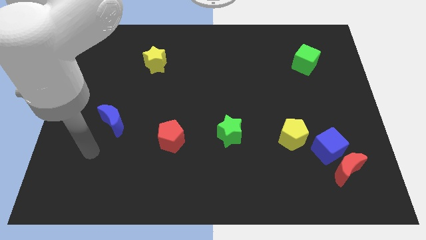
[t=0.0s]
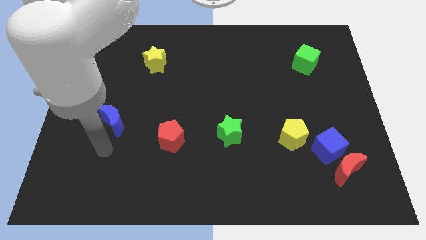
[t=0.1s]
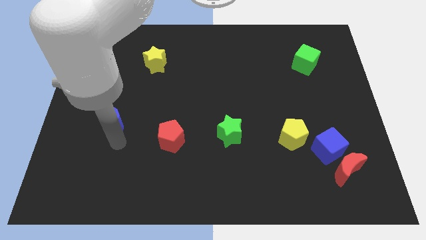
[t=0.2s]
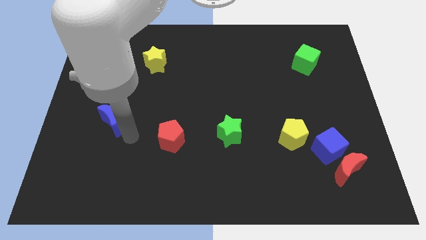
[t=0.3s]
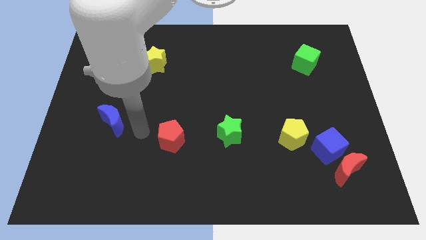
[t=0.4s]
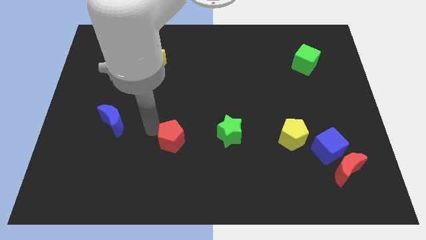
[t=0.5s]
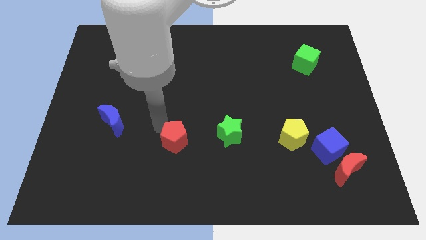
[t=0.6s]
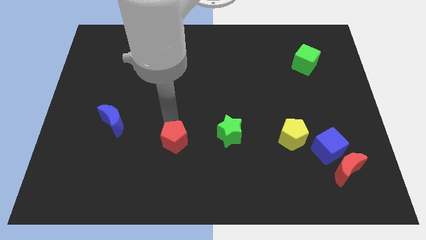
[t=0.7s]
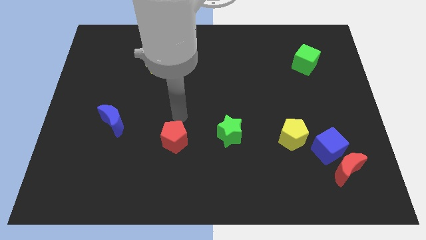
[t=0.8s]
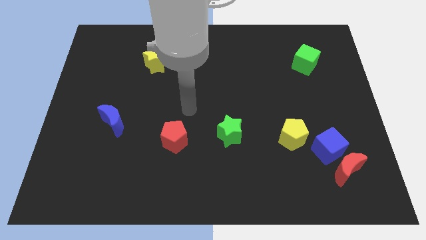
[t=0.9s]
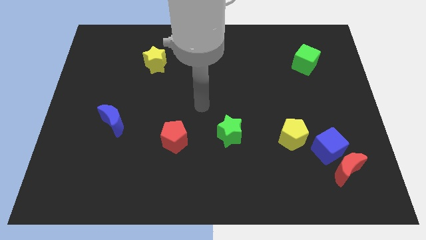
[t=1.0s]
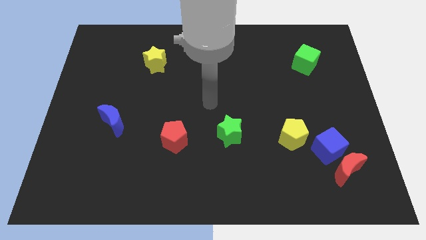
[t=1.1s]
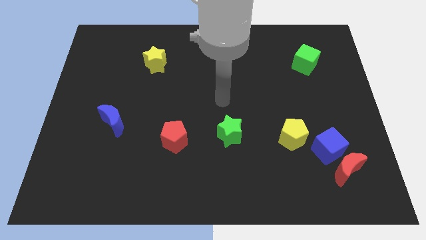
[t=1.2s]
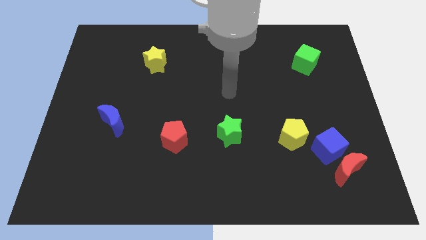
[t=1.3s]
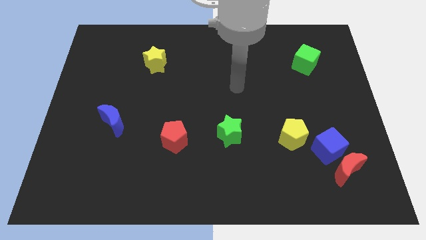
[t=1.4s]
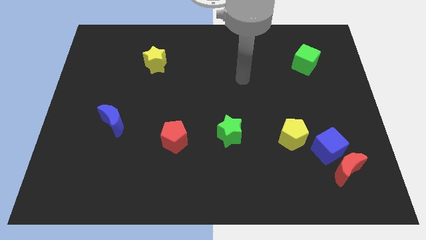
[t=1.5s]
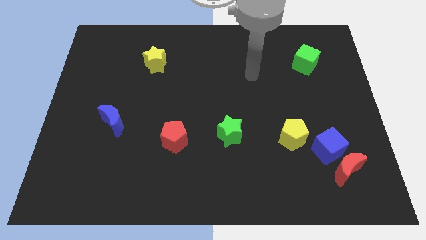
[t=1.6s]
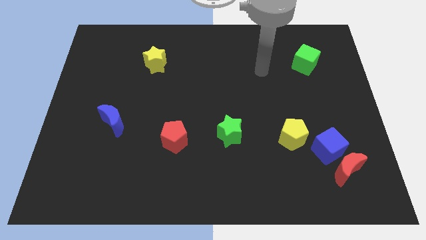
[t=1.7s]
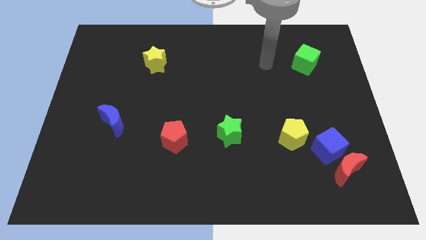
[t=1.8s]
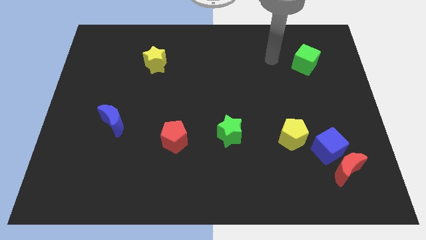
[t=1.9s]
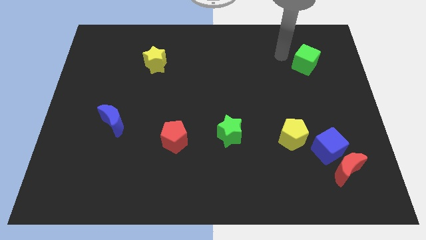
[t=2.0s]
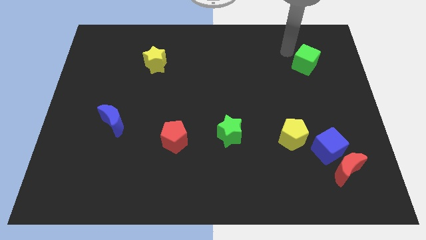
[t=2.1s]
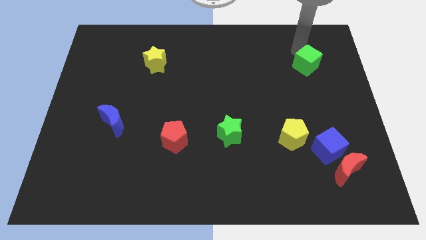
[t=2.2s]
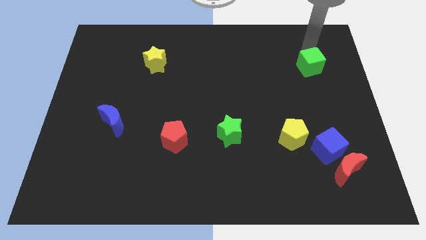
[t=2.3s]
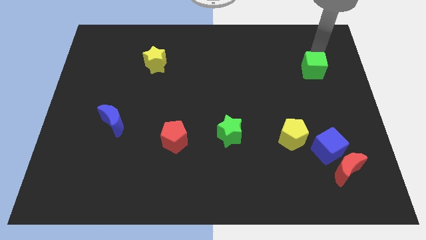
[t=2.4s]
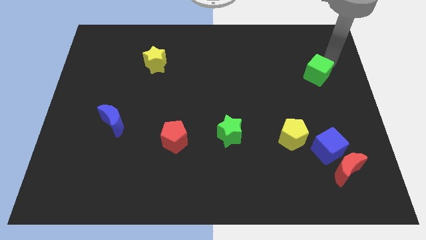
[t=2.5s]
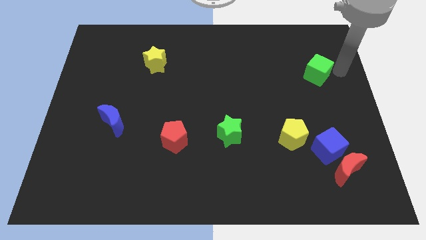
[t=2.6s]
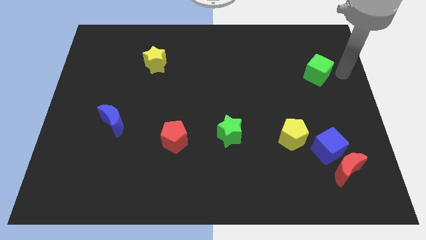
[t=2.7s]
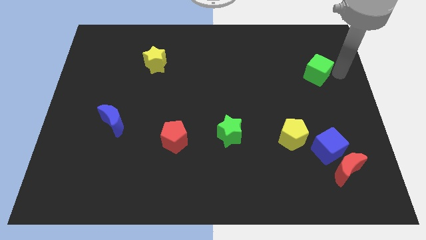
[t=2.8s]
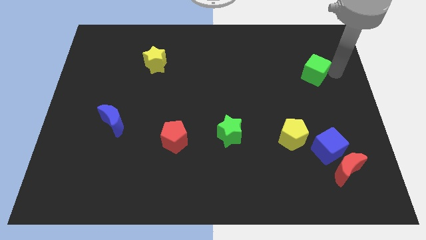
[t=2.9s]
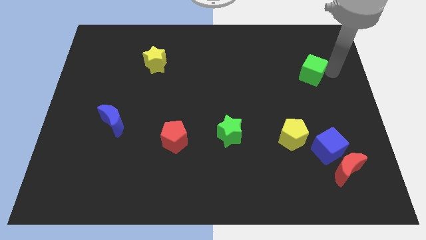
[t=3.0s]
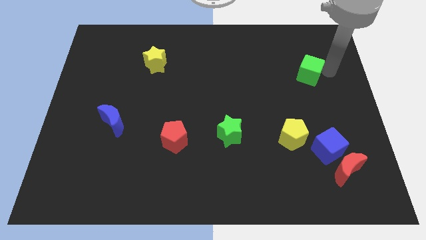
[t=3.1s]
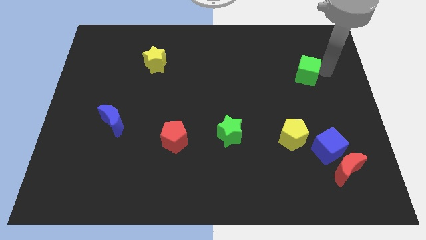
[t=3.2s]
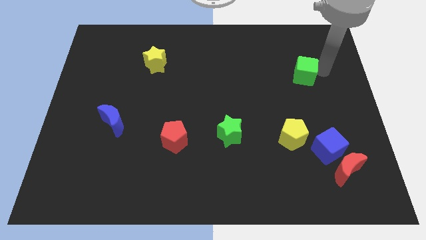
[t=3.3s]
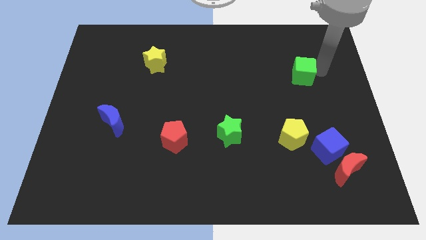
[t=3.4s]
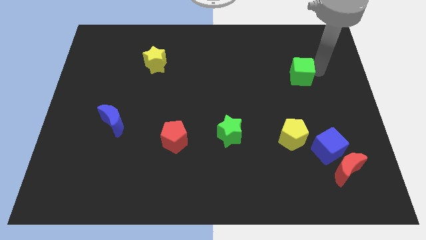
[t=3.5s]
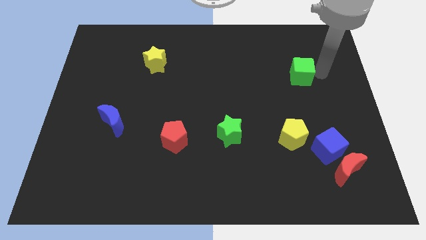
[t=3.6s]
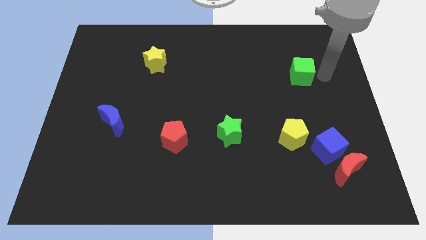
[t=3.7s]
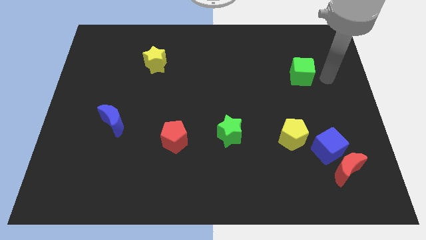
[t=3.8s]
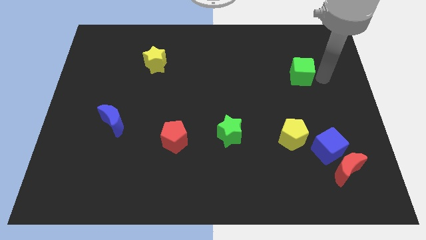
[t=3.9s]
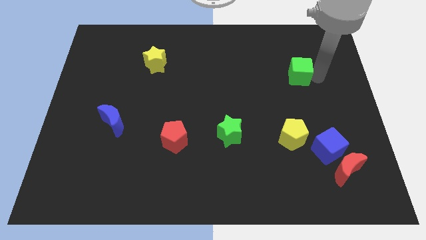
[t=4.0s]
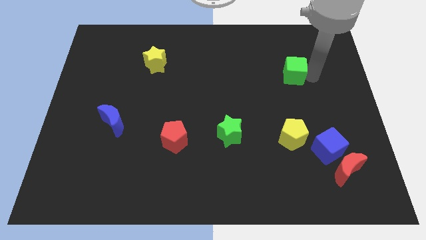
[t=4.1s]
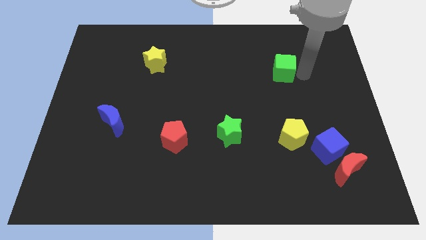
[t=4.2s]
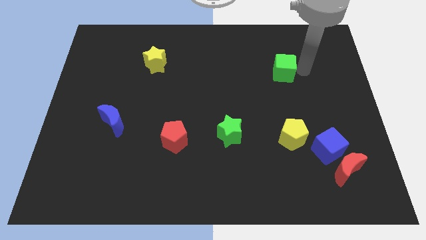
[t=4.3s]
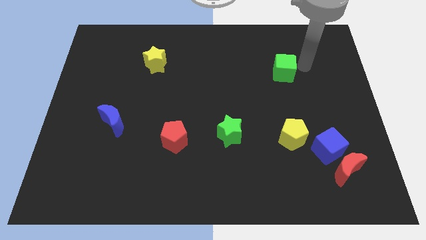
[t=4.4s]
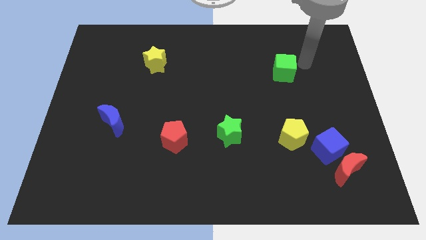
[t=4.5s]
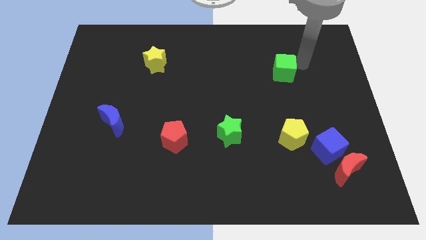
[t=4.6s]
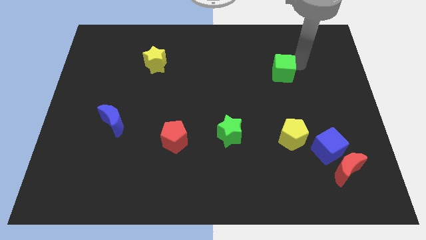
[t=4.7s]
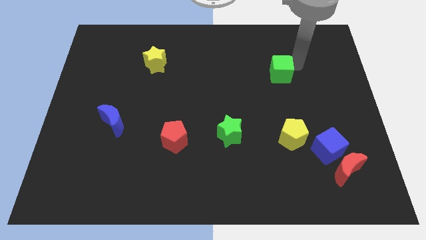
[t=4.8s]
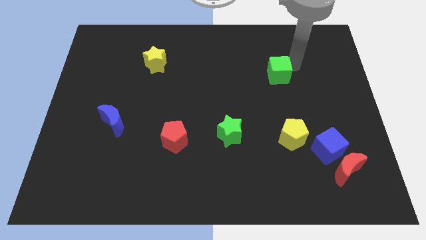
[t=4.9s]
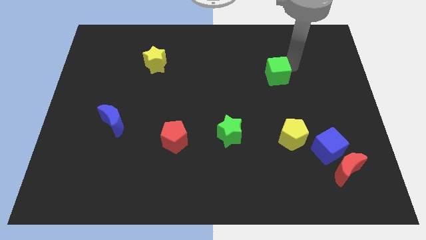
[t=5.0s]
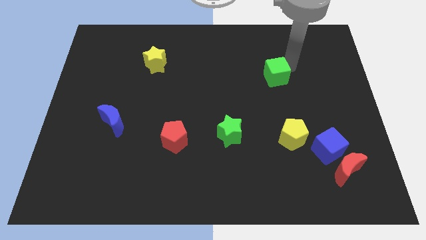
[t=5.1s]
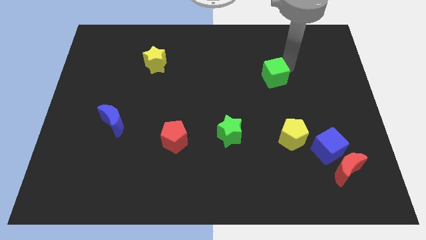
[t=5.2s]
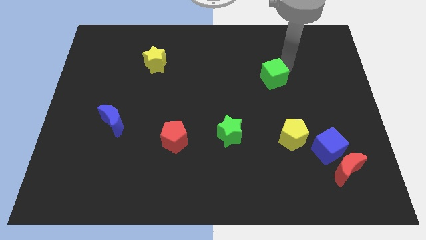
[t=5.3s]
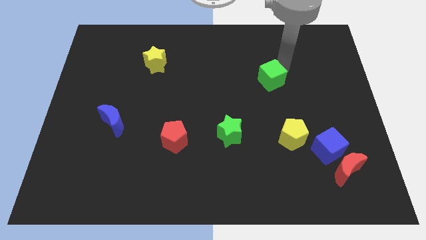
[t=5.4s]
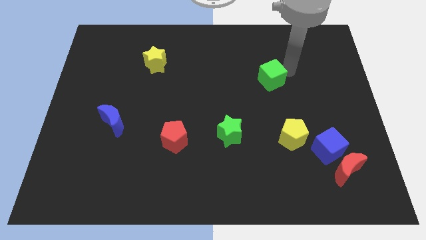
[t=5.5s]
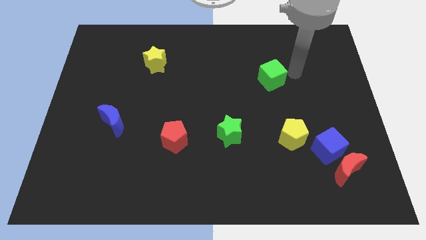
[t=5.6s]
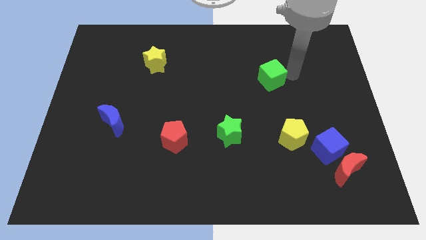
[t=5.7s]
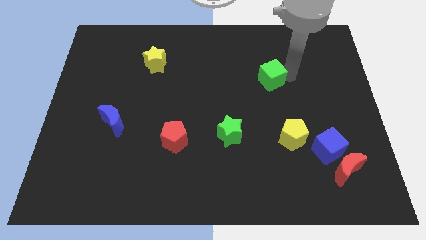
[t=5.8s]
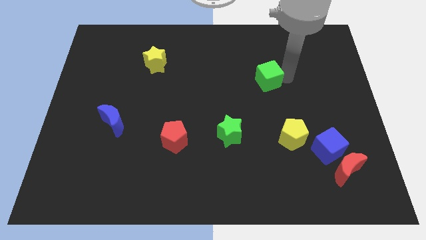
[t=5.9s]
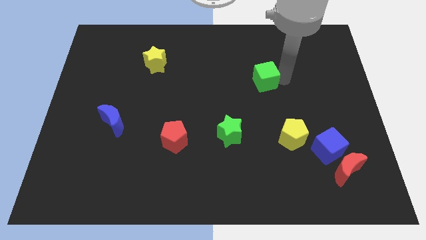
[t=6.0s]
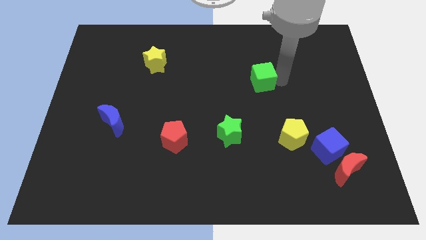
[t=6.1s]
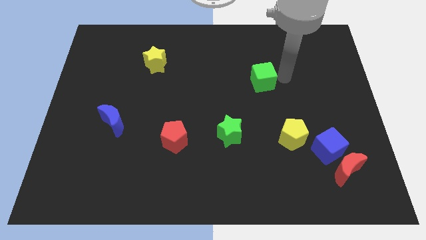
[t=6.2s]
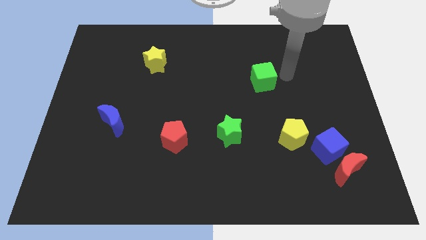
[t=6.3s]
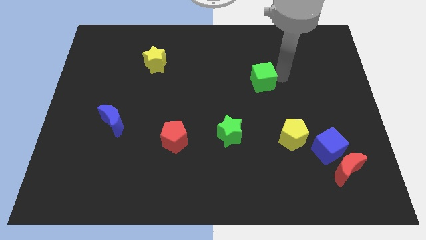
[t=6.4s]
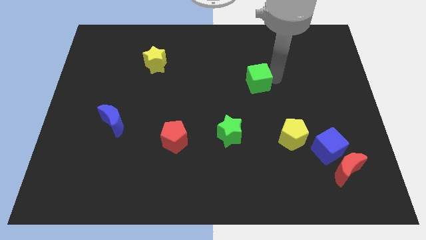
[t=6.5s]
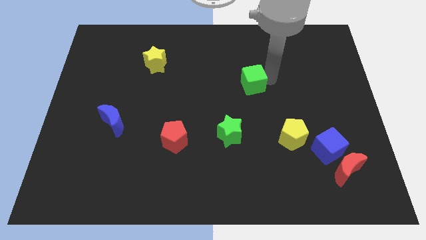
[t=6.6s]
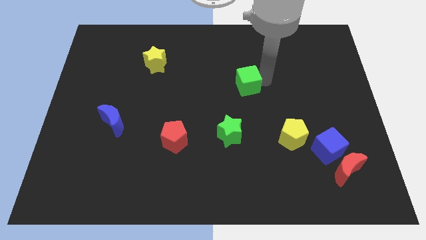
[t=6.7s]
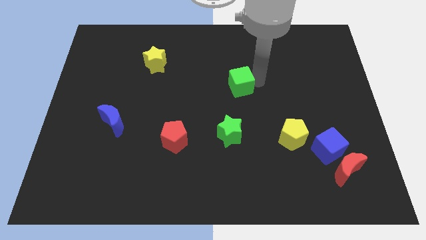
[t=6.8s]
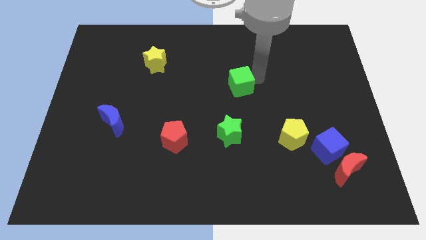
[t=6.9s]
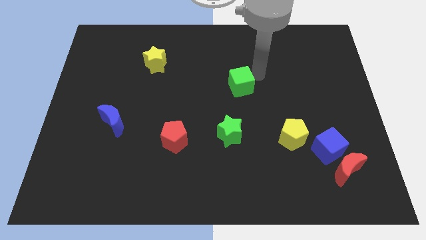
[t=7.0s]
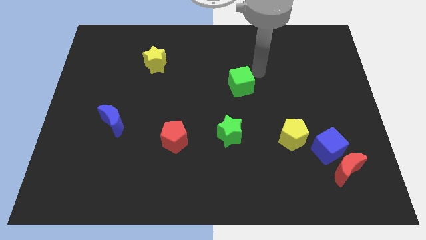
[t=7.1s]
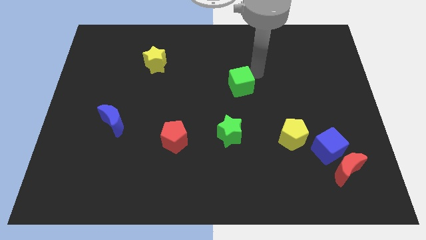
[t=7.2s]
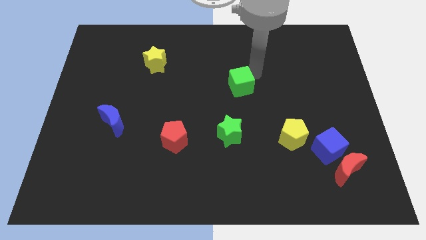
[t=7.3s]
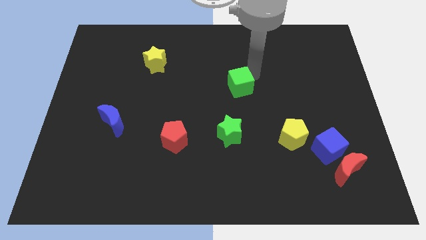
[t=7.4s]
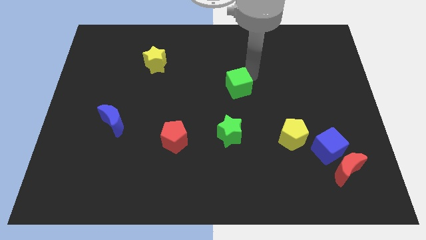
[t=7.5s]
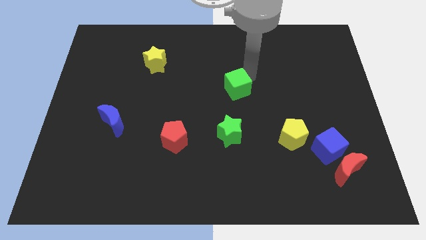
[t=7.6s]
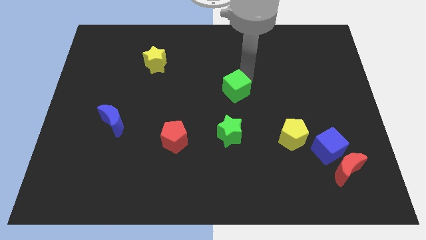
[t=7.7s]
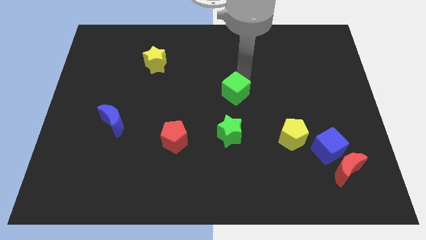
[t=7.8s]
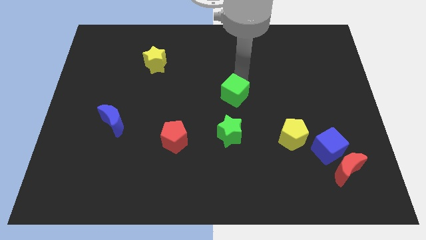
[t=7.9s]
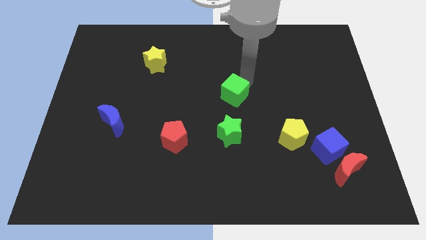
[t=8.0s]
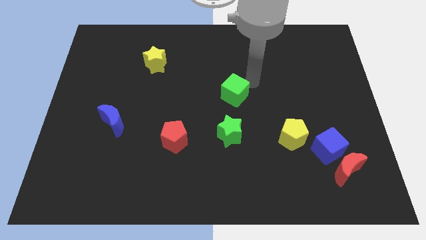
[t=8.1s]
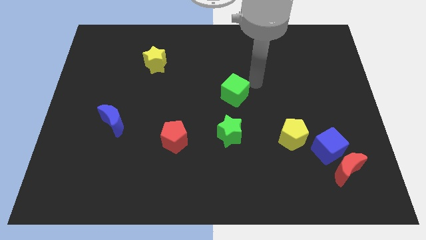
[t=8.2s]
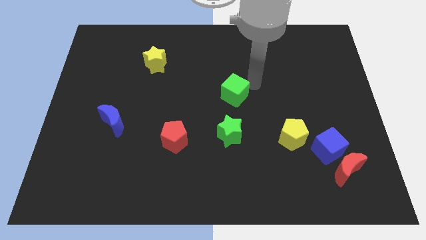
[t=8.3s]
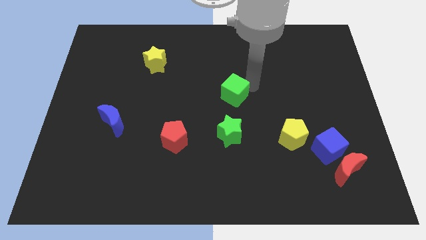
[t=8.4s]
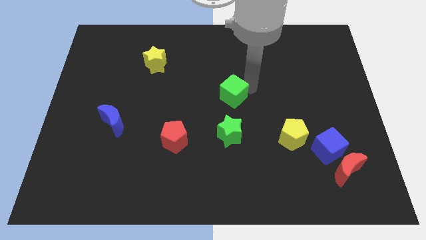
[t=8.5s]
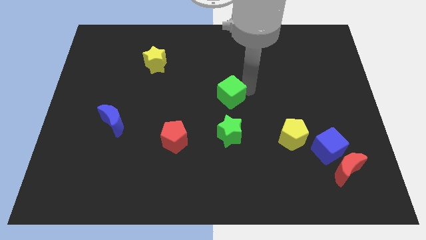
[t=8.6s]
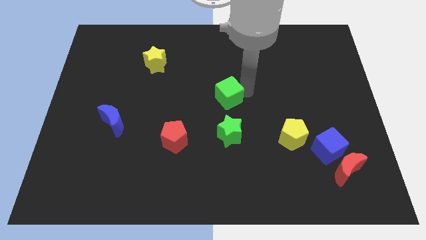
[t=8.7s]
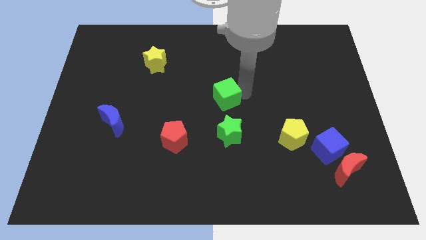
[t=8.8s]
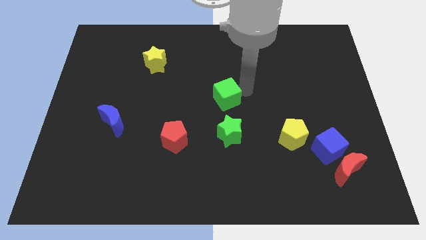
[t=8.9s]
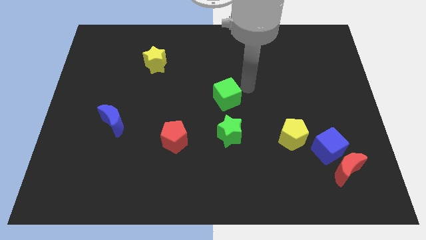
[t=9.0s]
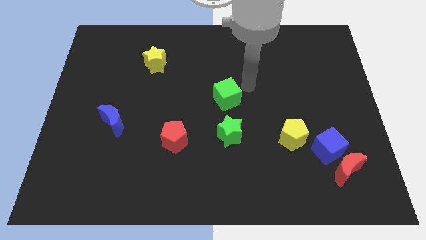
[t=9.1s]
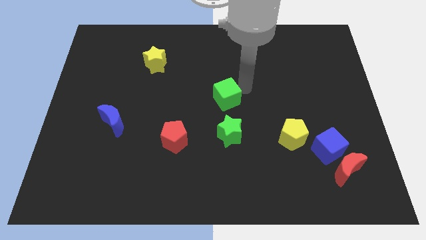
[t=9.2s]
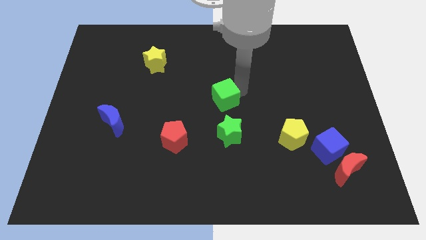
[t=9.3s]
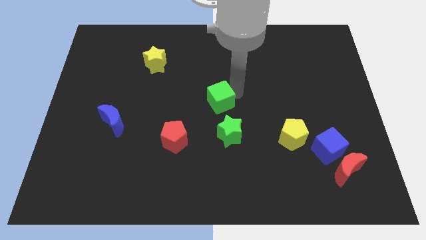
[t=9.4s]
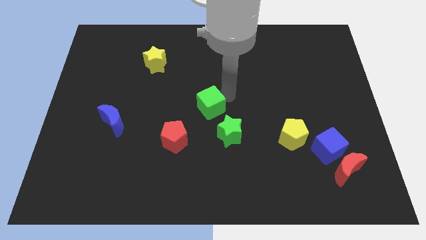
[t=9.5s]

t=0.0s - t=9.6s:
slide the green cube diagonally up and to the right of the red pentagon
